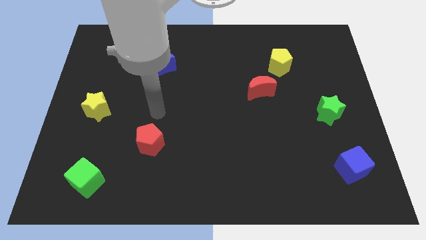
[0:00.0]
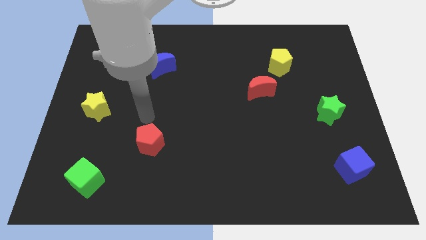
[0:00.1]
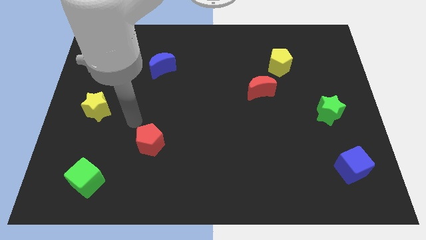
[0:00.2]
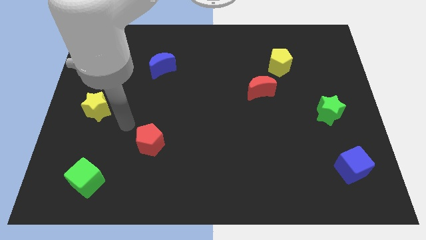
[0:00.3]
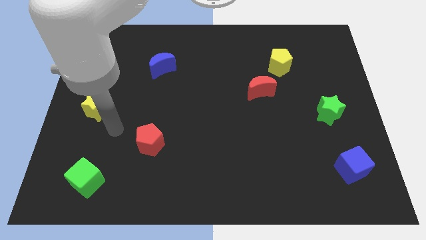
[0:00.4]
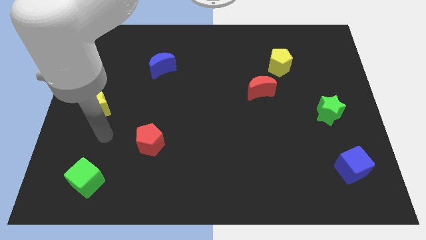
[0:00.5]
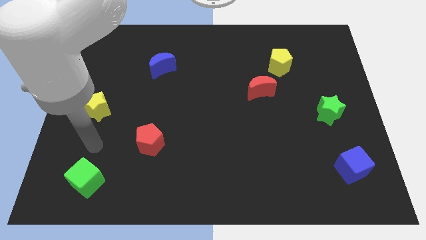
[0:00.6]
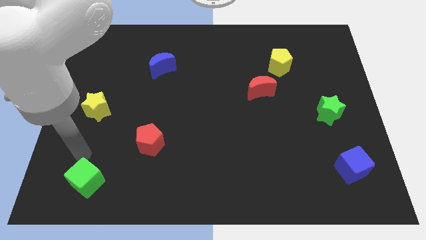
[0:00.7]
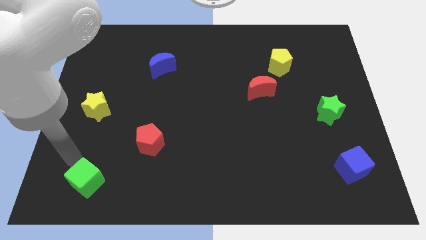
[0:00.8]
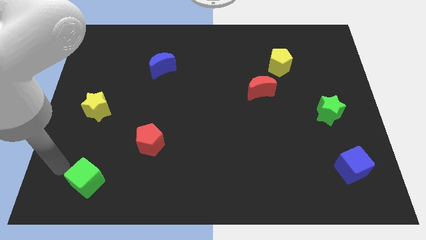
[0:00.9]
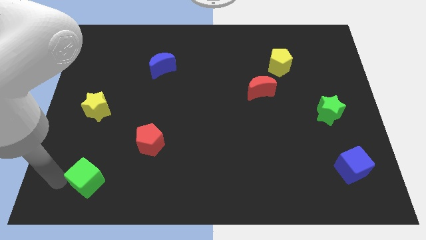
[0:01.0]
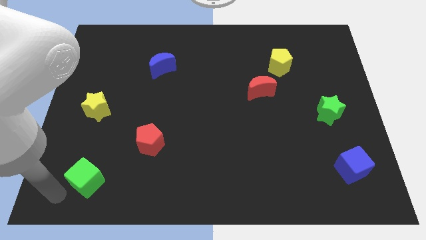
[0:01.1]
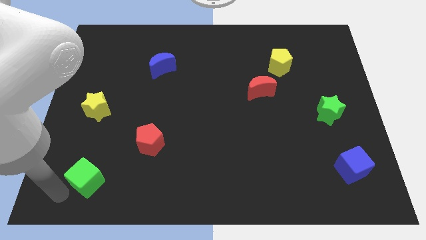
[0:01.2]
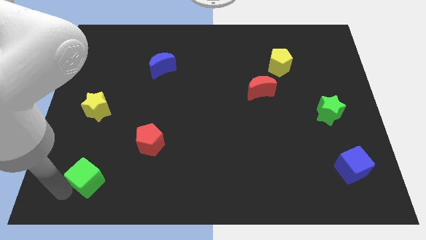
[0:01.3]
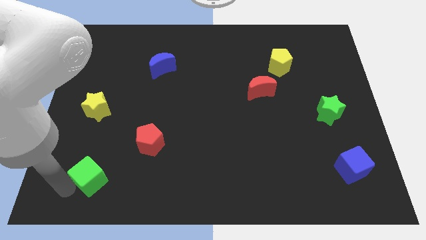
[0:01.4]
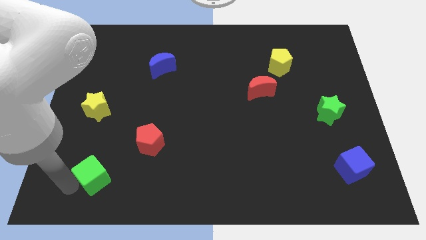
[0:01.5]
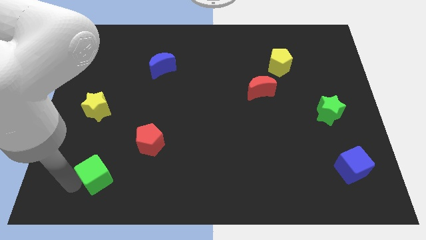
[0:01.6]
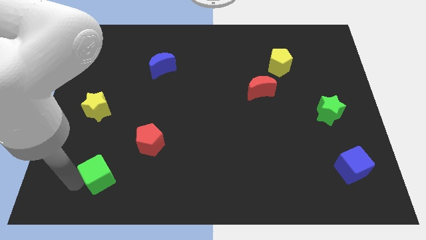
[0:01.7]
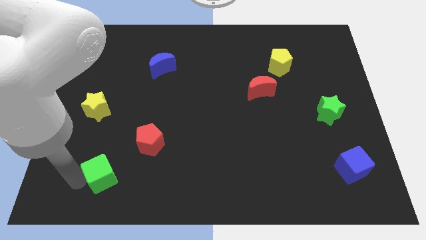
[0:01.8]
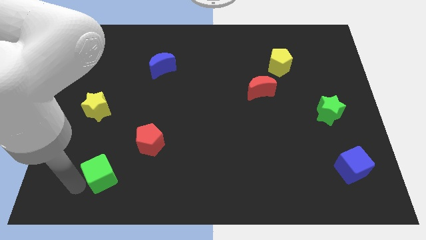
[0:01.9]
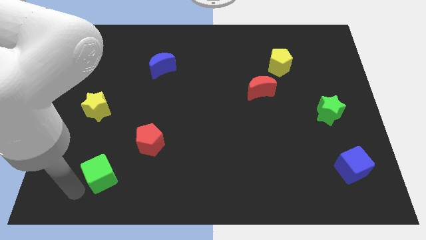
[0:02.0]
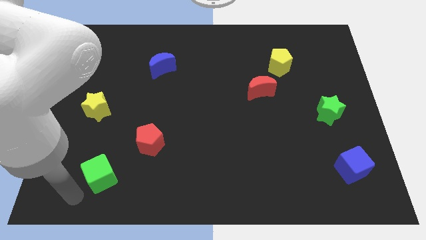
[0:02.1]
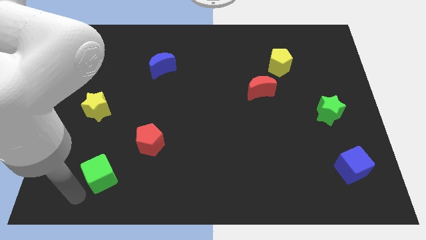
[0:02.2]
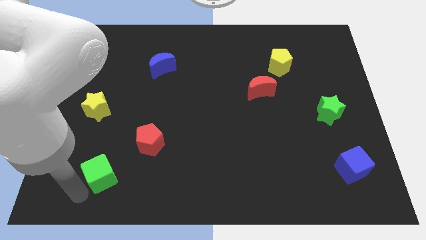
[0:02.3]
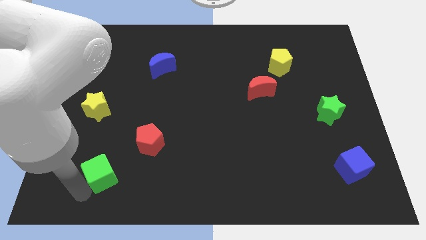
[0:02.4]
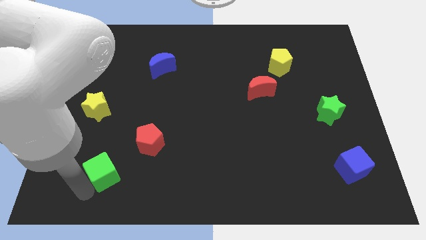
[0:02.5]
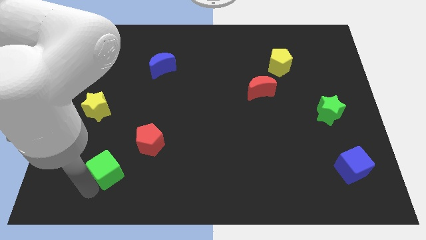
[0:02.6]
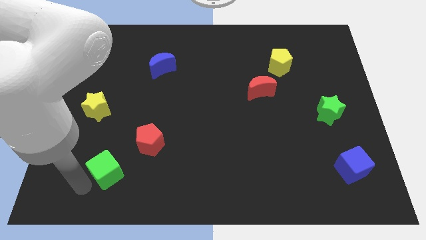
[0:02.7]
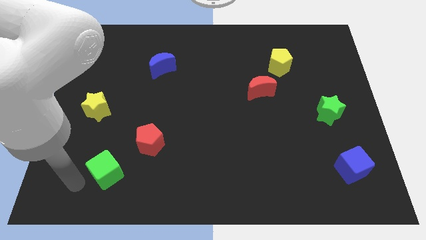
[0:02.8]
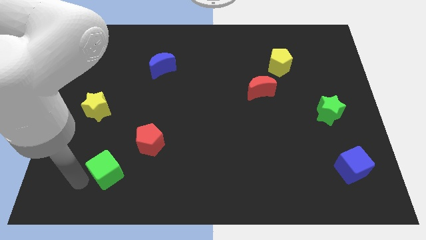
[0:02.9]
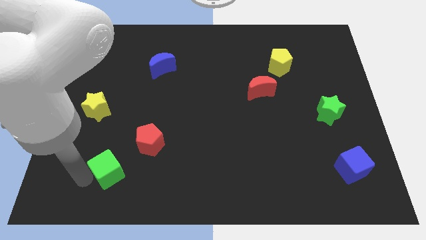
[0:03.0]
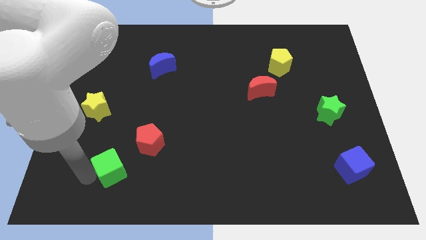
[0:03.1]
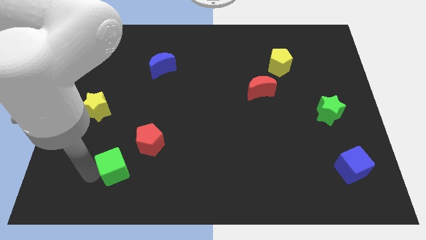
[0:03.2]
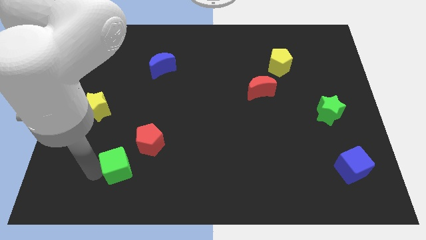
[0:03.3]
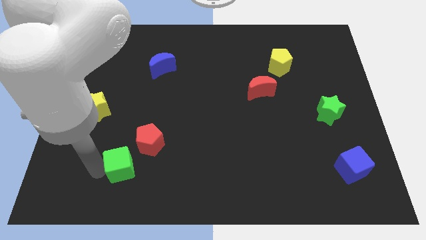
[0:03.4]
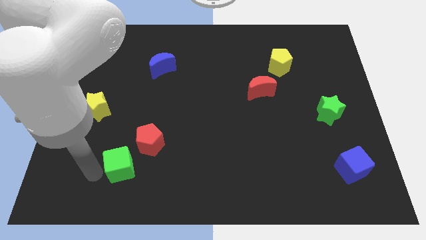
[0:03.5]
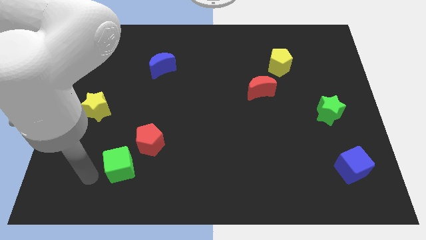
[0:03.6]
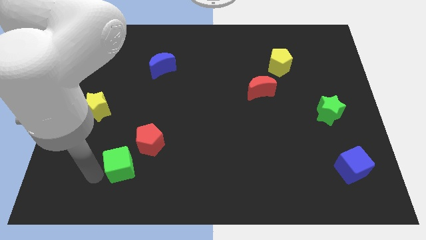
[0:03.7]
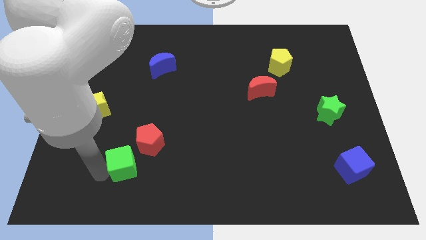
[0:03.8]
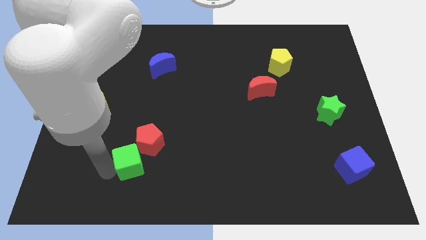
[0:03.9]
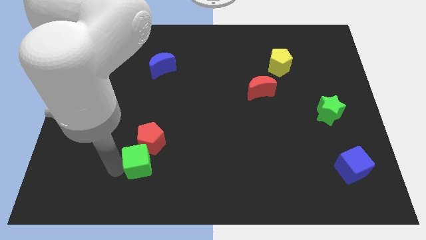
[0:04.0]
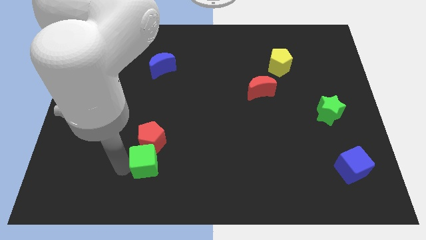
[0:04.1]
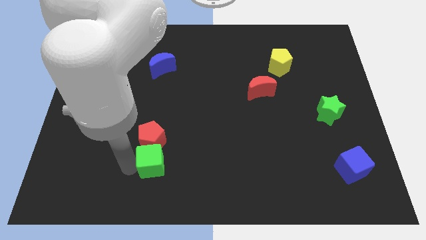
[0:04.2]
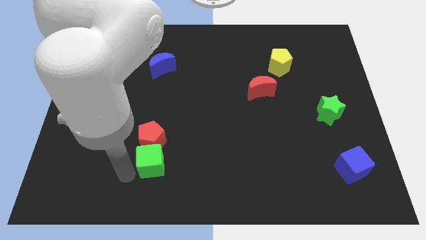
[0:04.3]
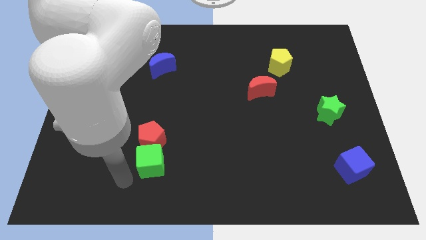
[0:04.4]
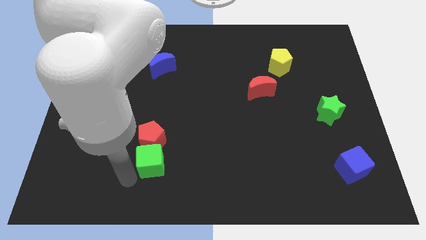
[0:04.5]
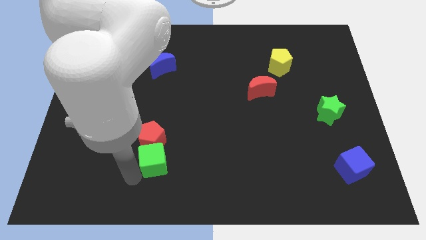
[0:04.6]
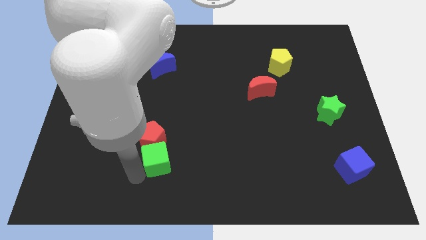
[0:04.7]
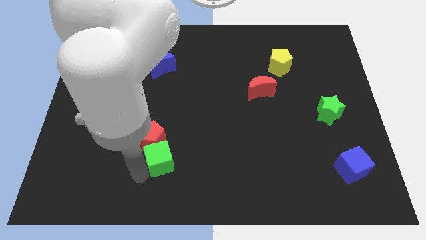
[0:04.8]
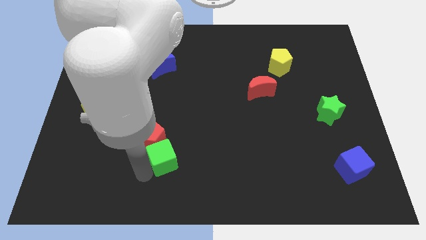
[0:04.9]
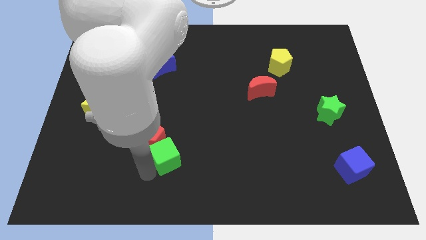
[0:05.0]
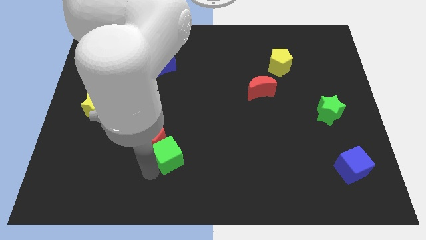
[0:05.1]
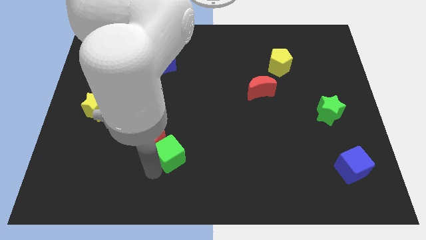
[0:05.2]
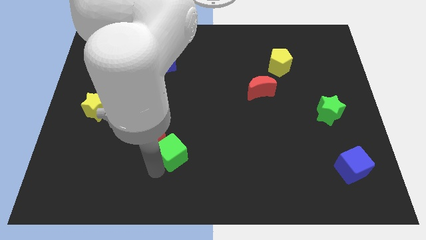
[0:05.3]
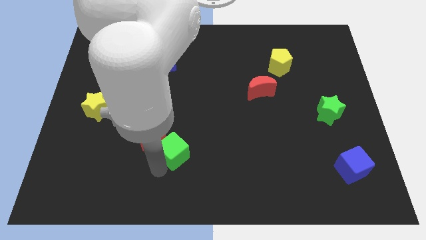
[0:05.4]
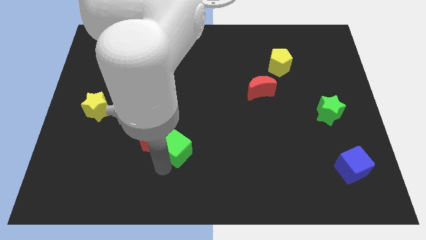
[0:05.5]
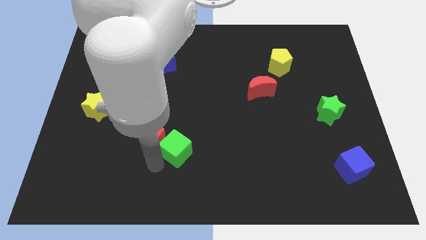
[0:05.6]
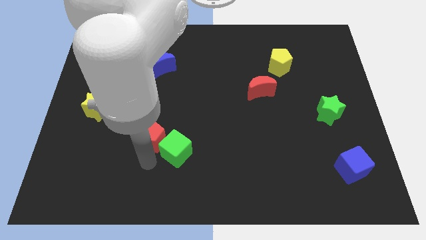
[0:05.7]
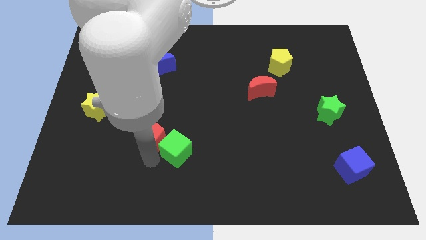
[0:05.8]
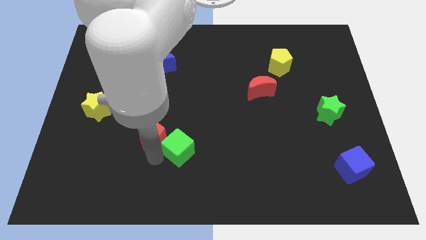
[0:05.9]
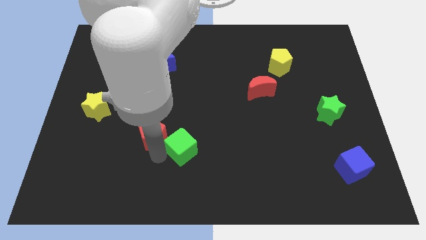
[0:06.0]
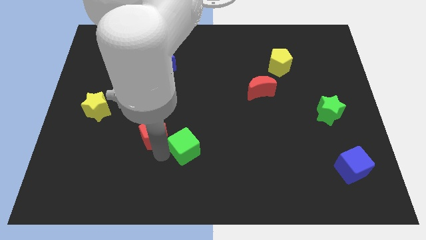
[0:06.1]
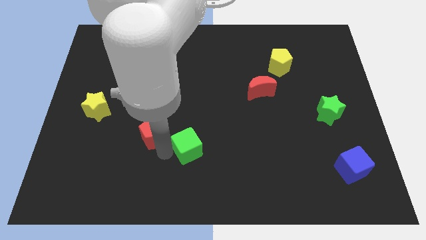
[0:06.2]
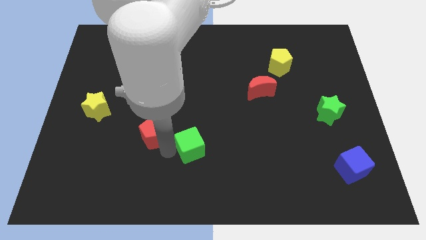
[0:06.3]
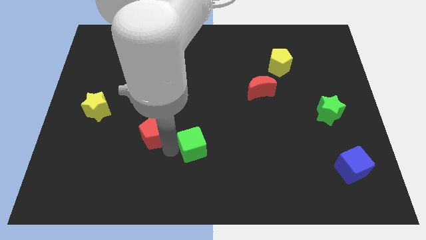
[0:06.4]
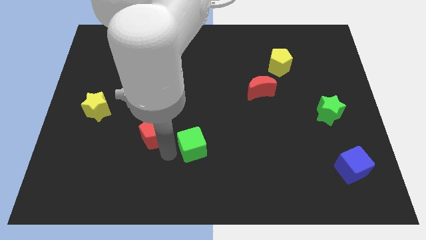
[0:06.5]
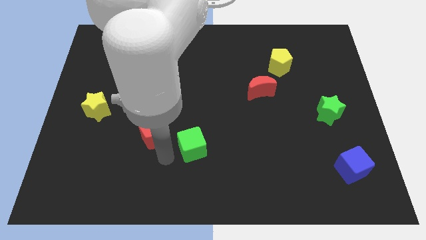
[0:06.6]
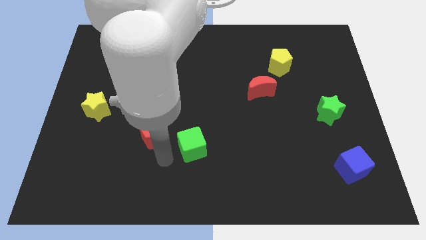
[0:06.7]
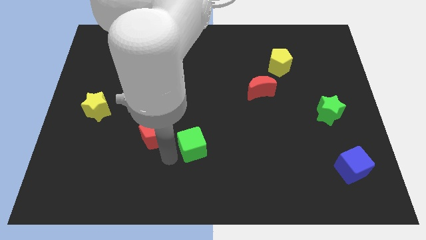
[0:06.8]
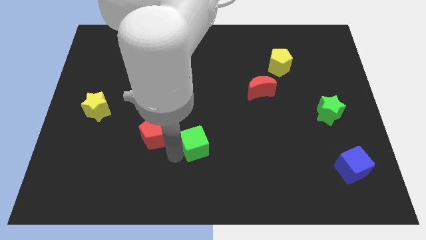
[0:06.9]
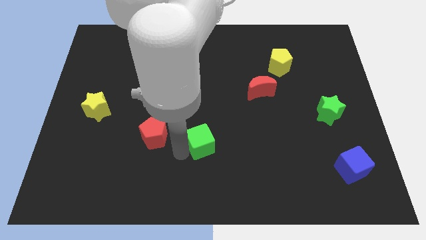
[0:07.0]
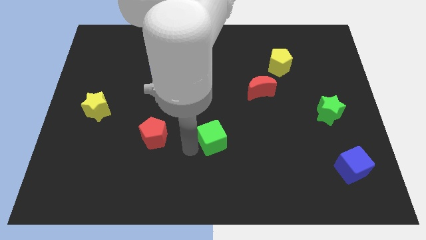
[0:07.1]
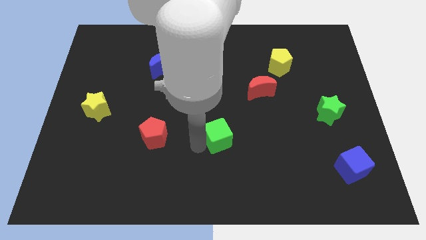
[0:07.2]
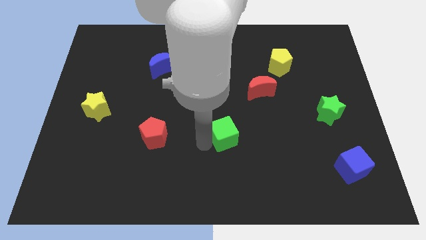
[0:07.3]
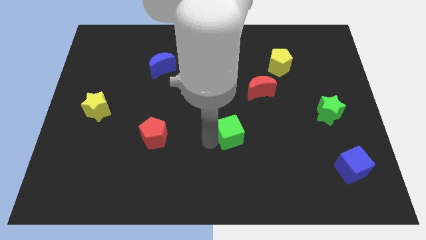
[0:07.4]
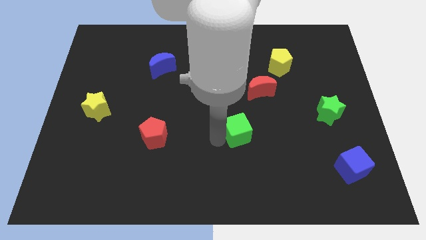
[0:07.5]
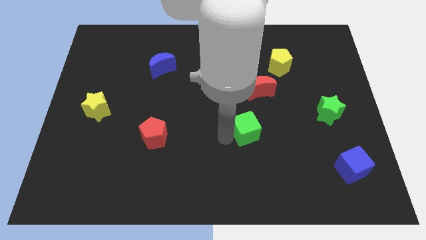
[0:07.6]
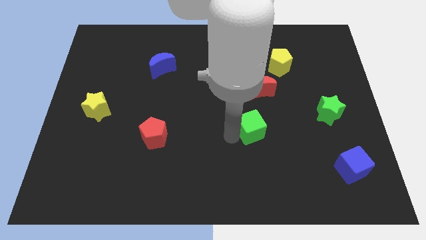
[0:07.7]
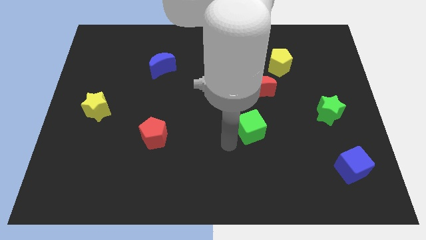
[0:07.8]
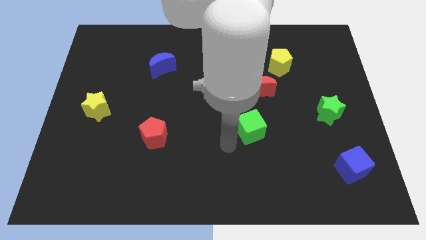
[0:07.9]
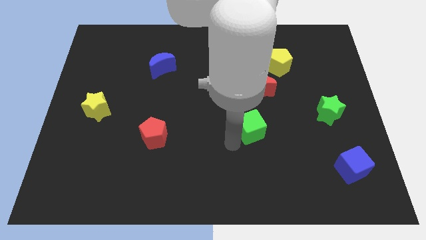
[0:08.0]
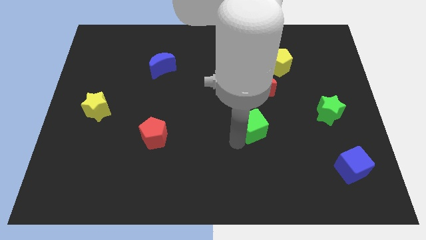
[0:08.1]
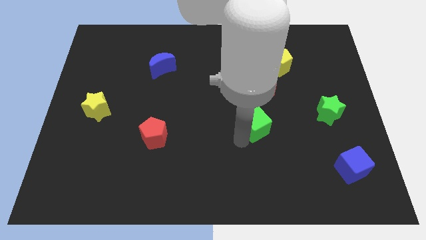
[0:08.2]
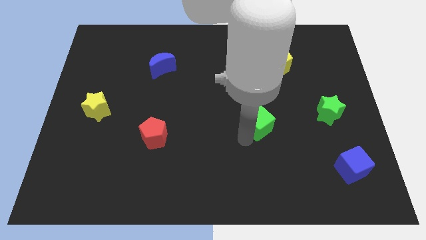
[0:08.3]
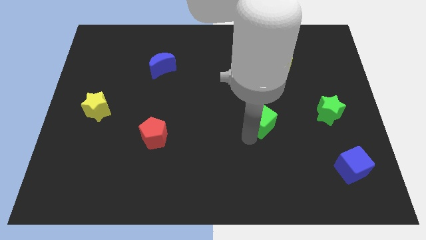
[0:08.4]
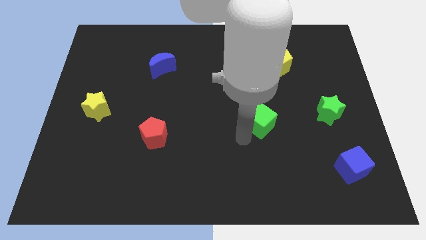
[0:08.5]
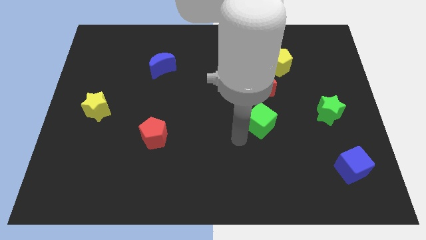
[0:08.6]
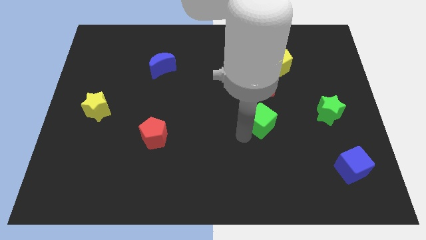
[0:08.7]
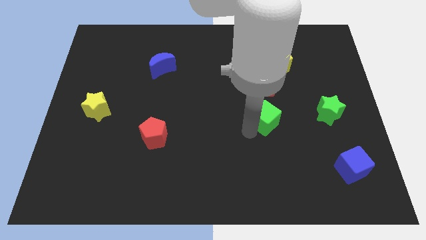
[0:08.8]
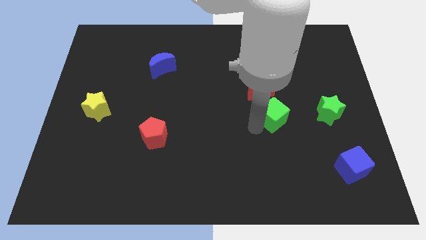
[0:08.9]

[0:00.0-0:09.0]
move the green cube diagonally down and to the right of the red moon
